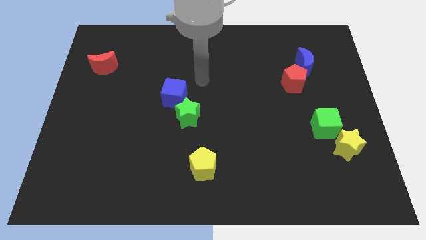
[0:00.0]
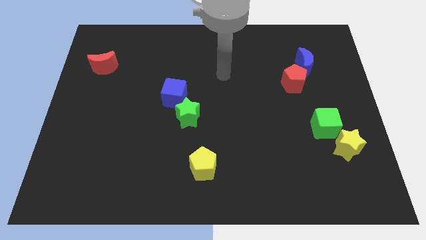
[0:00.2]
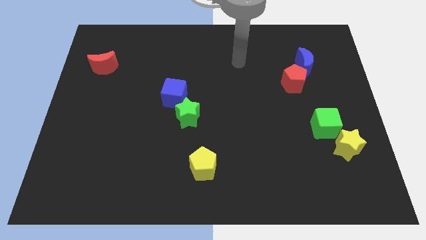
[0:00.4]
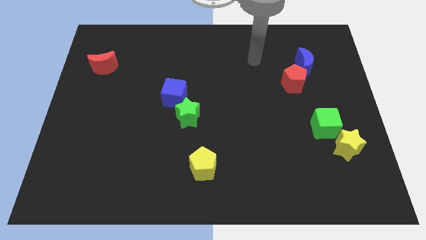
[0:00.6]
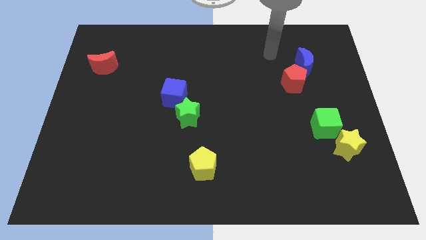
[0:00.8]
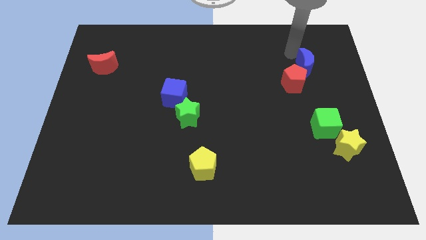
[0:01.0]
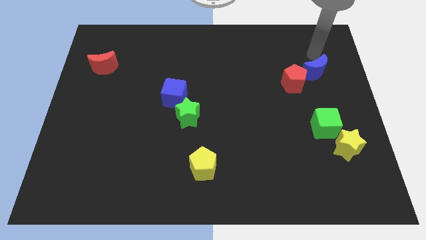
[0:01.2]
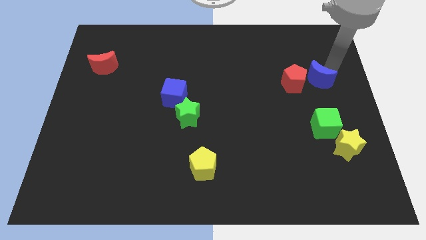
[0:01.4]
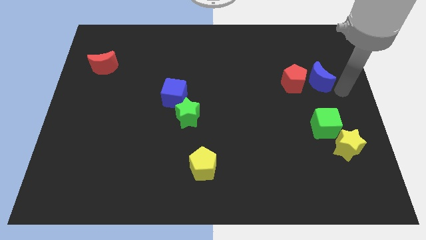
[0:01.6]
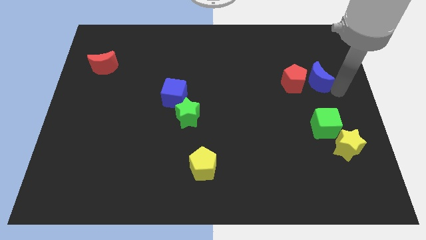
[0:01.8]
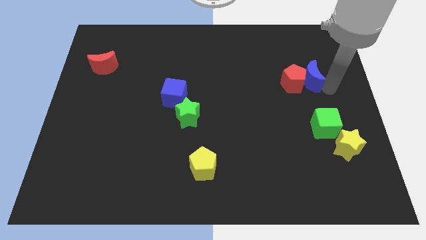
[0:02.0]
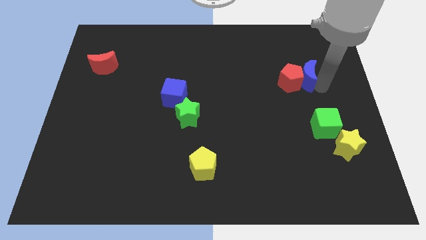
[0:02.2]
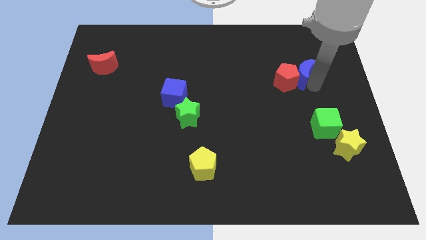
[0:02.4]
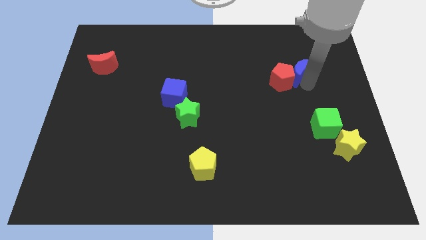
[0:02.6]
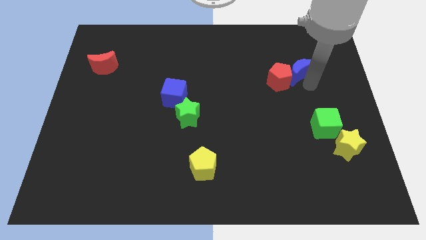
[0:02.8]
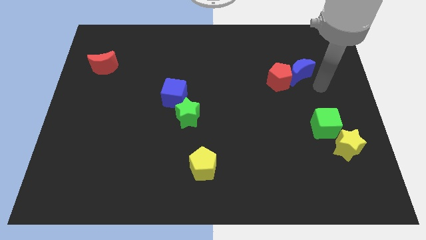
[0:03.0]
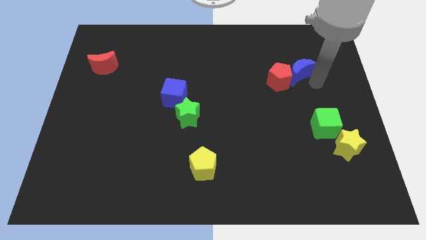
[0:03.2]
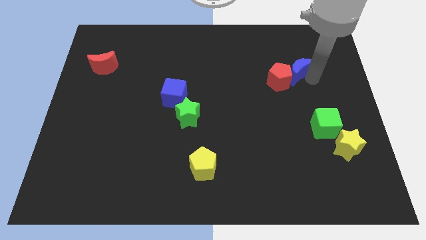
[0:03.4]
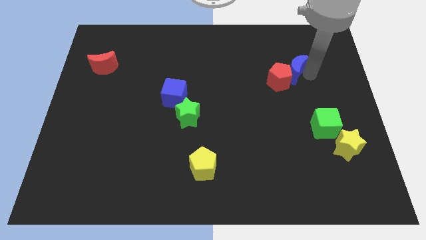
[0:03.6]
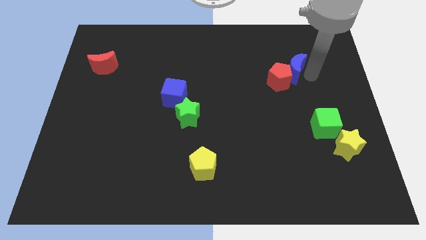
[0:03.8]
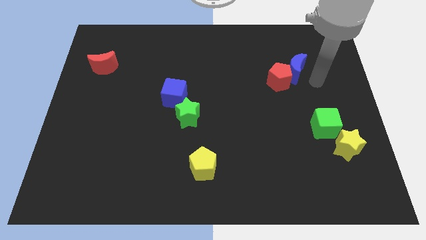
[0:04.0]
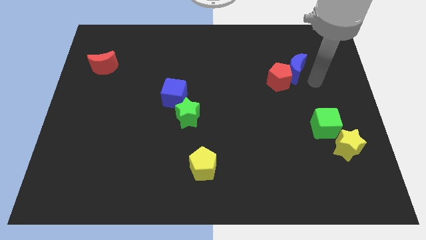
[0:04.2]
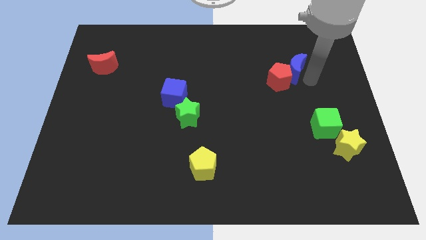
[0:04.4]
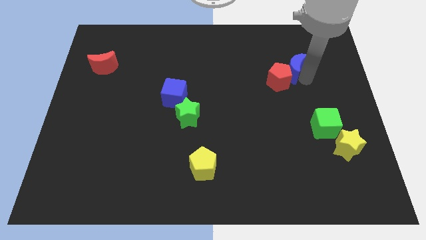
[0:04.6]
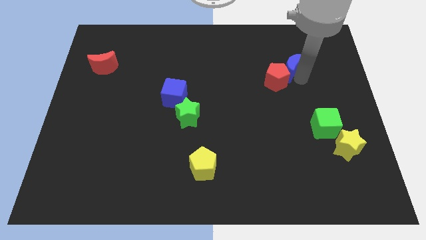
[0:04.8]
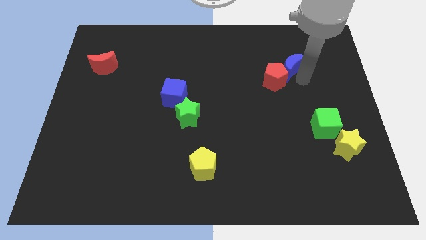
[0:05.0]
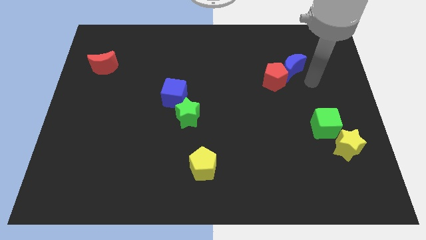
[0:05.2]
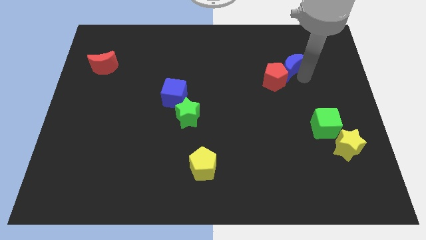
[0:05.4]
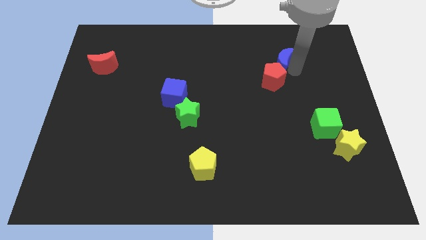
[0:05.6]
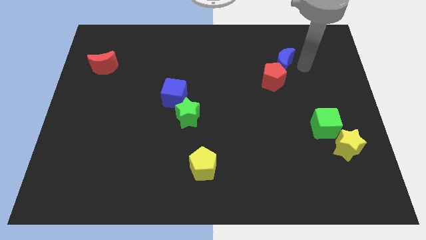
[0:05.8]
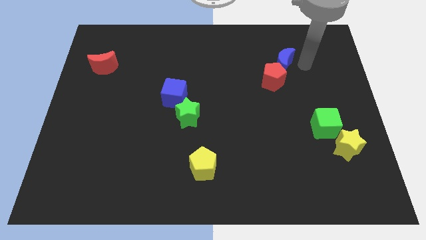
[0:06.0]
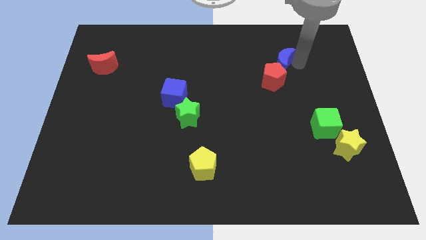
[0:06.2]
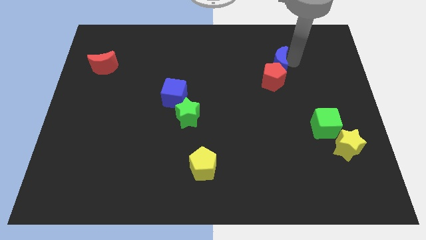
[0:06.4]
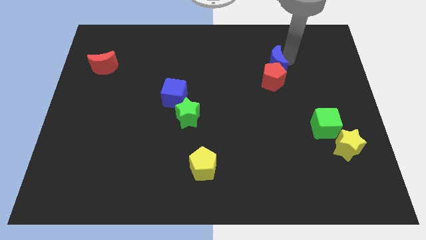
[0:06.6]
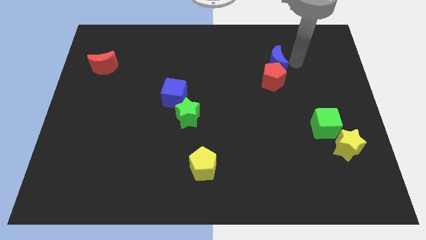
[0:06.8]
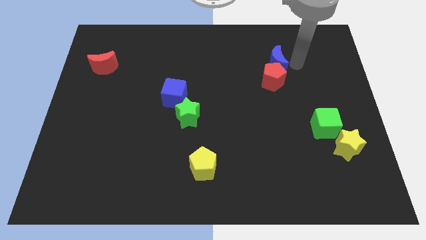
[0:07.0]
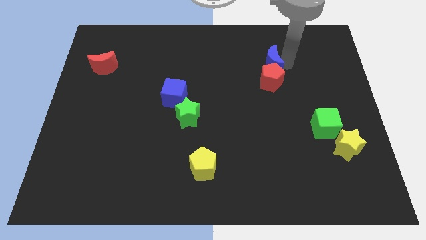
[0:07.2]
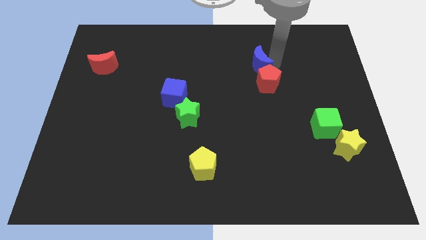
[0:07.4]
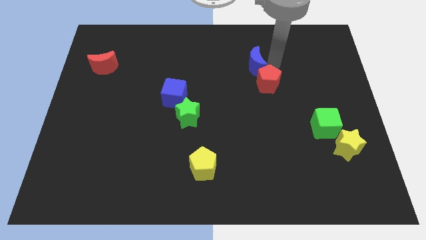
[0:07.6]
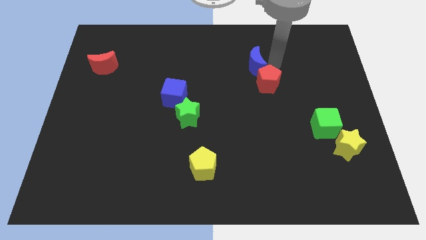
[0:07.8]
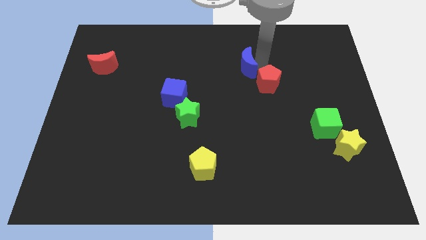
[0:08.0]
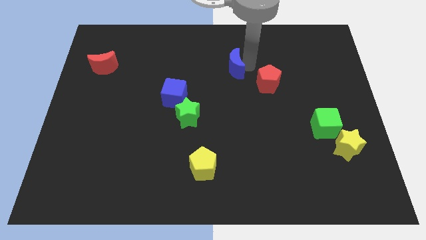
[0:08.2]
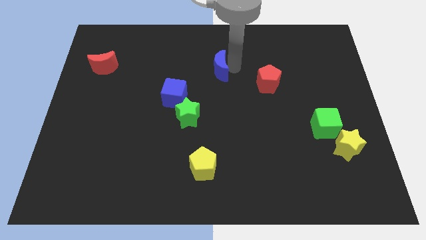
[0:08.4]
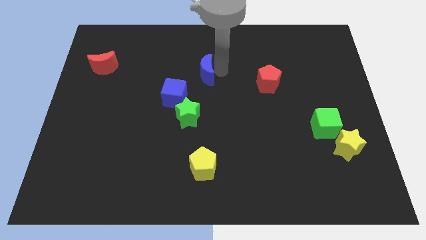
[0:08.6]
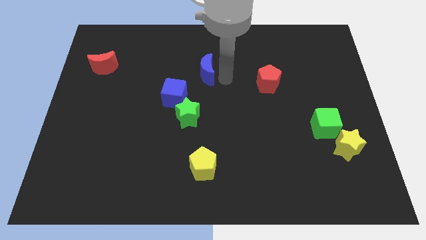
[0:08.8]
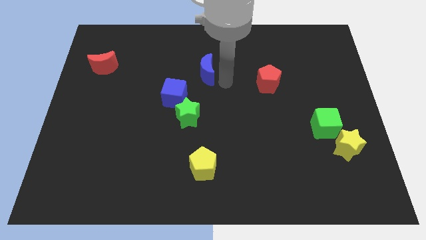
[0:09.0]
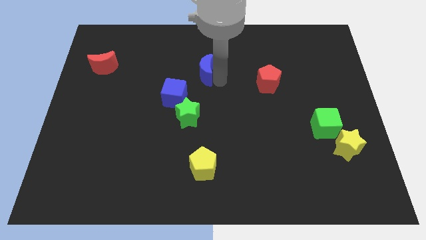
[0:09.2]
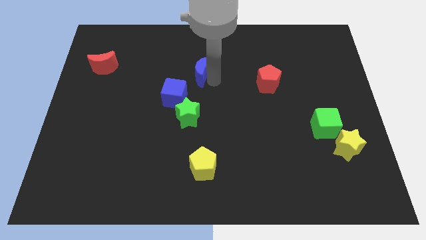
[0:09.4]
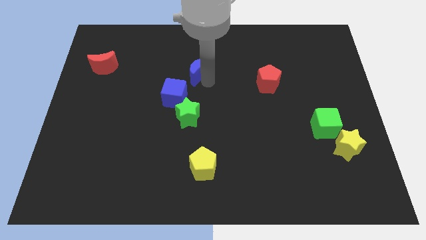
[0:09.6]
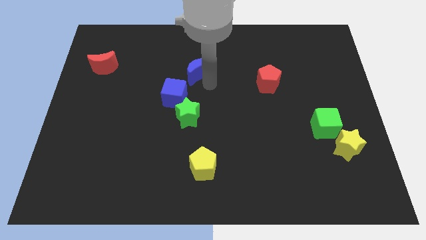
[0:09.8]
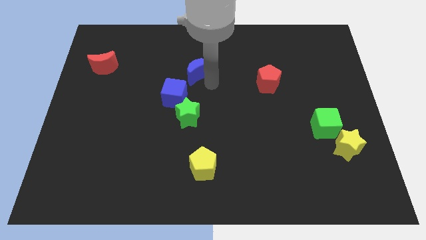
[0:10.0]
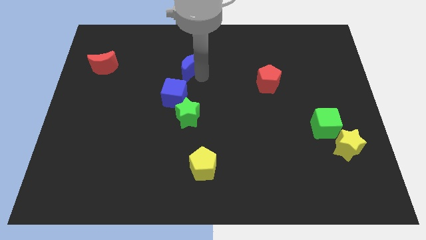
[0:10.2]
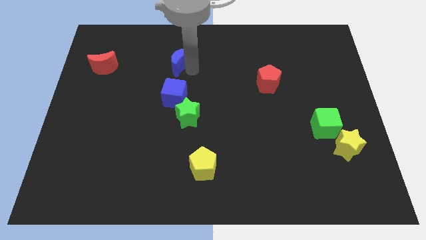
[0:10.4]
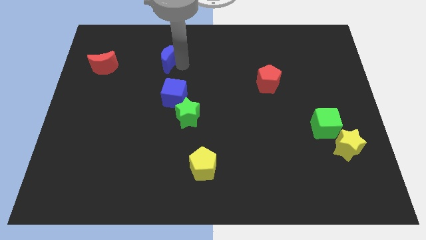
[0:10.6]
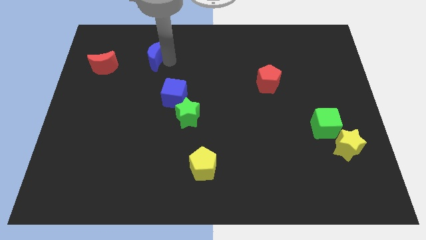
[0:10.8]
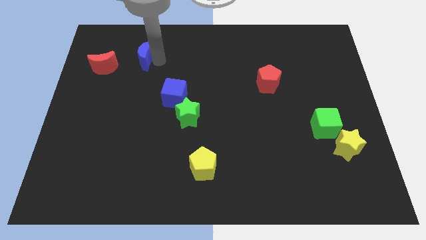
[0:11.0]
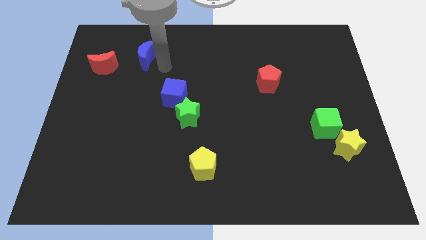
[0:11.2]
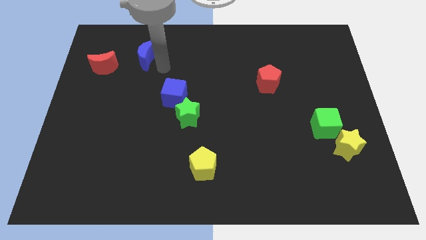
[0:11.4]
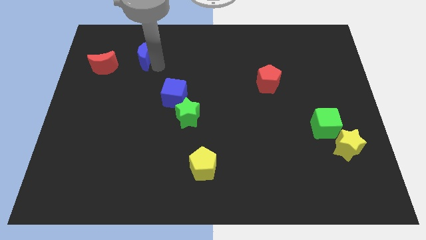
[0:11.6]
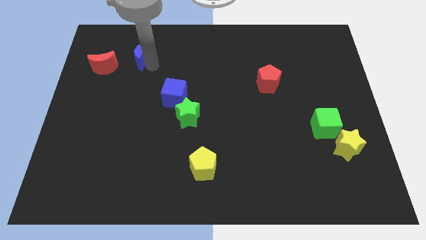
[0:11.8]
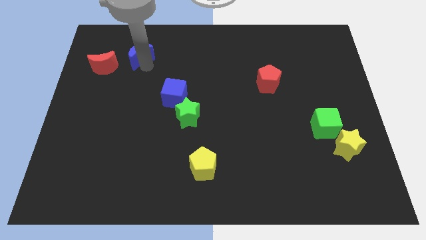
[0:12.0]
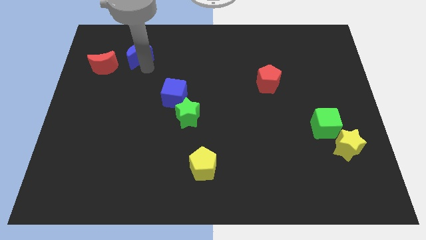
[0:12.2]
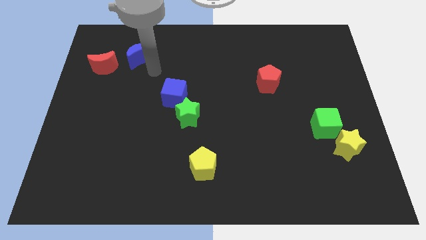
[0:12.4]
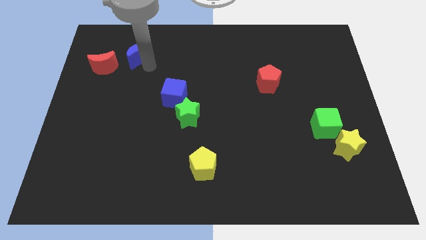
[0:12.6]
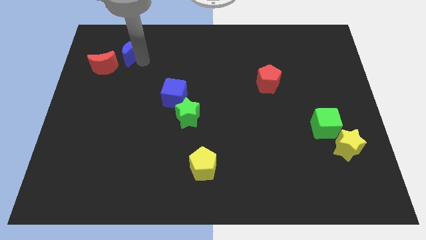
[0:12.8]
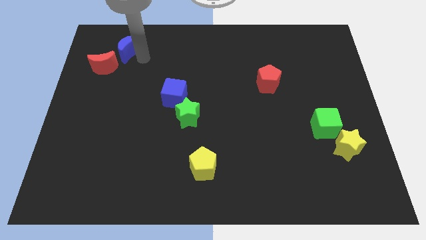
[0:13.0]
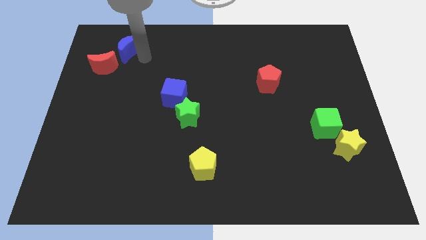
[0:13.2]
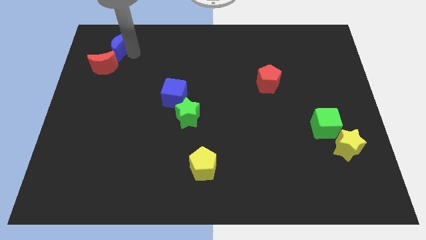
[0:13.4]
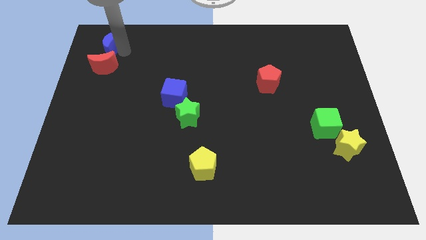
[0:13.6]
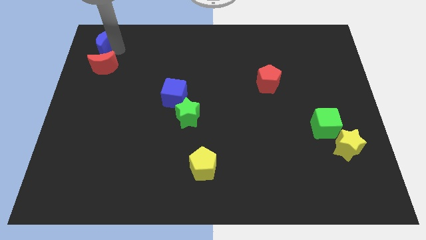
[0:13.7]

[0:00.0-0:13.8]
push the blue moon to the top left
